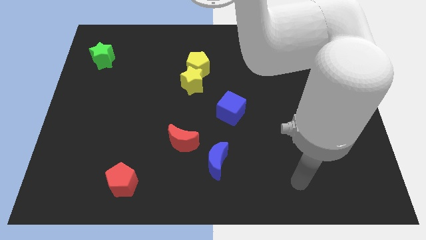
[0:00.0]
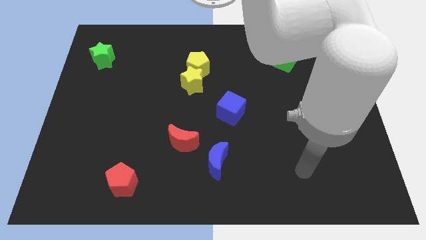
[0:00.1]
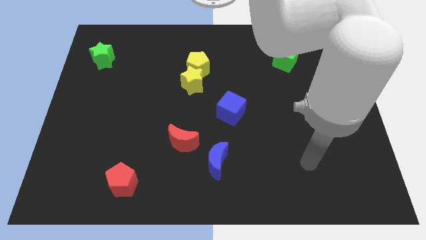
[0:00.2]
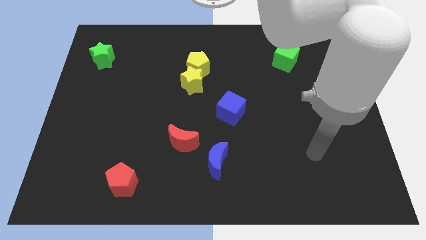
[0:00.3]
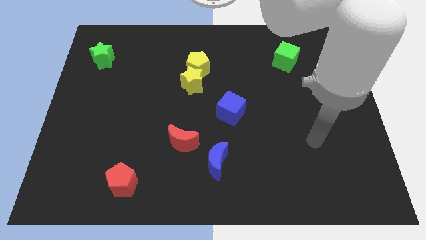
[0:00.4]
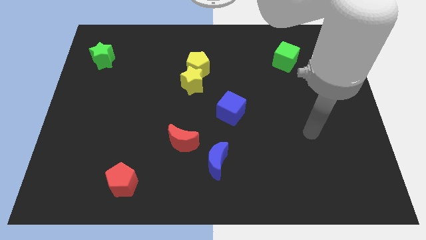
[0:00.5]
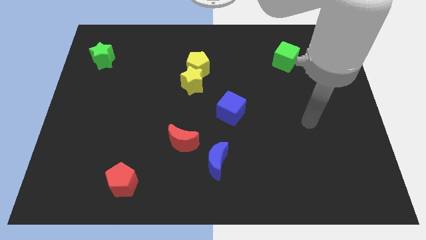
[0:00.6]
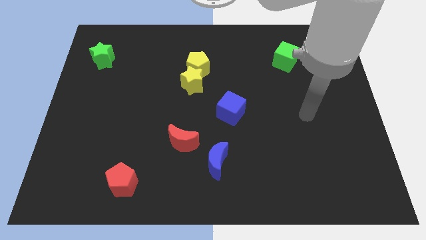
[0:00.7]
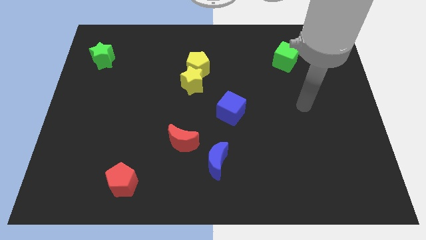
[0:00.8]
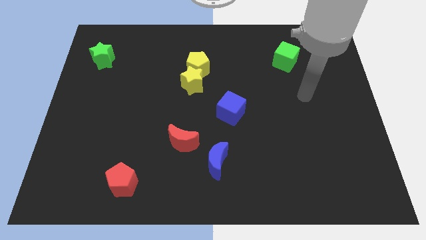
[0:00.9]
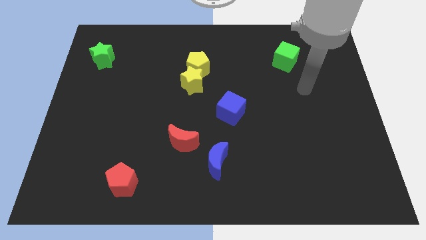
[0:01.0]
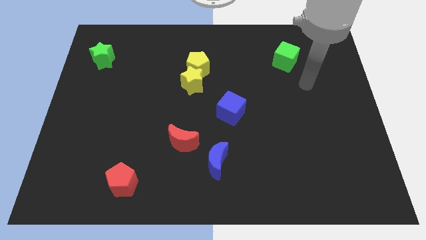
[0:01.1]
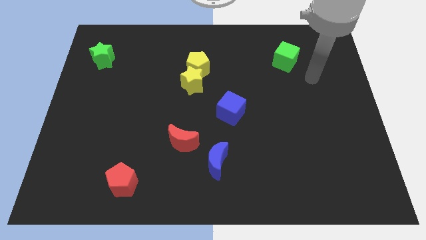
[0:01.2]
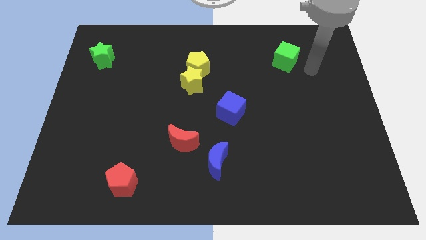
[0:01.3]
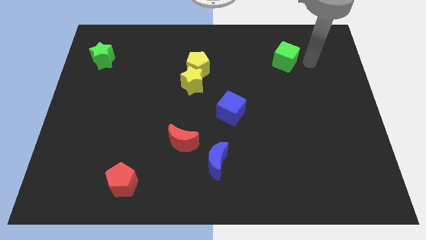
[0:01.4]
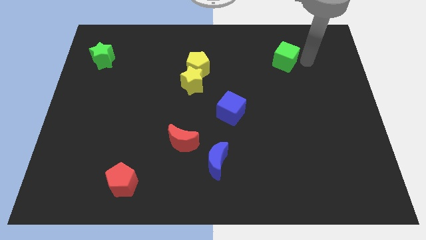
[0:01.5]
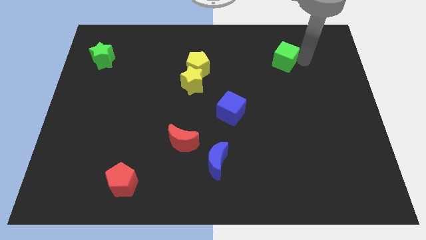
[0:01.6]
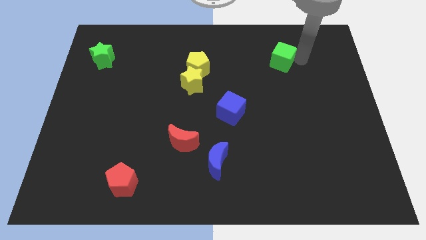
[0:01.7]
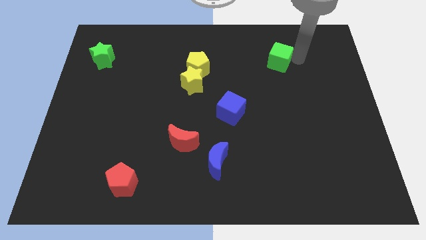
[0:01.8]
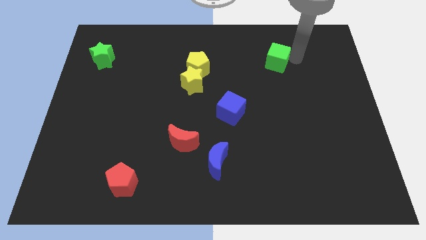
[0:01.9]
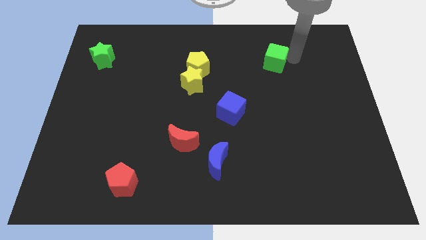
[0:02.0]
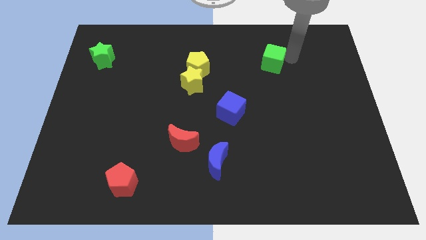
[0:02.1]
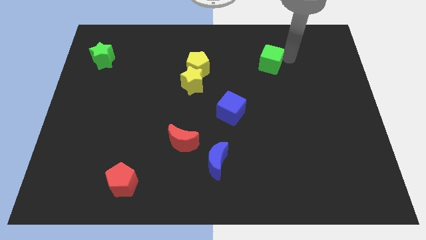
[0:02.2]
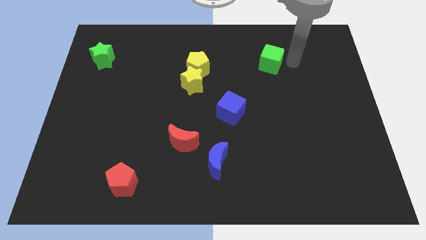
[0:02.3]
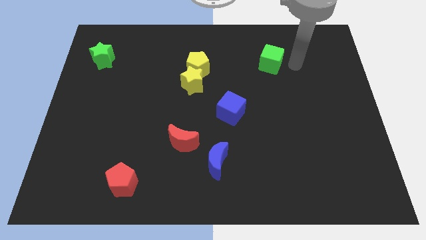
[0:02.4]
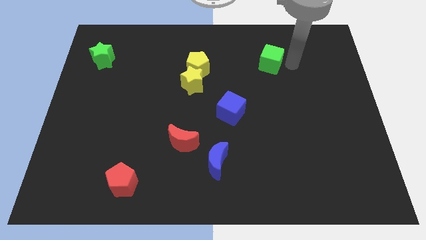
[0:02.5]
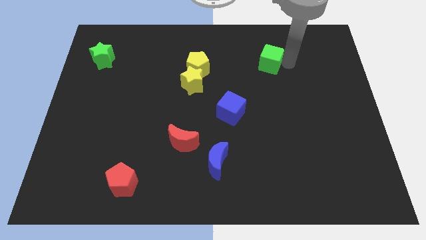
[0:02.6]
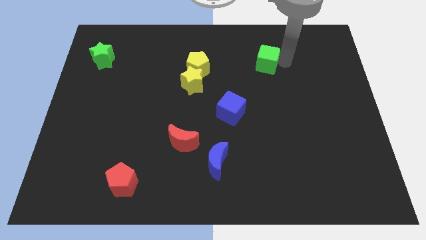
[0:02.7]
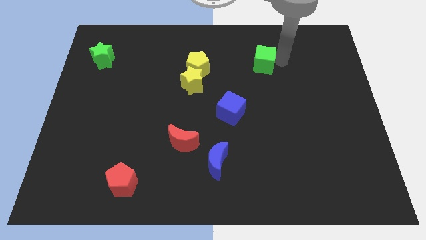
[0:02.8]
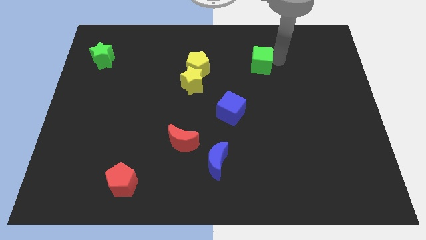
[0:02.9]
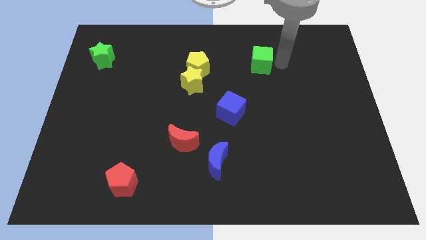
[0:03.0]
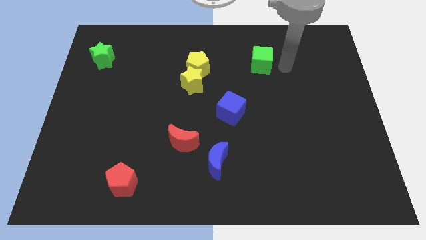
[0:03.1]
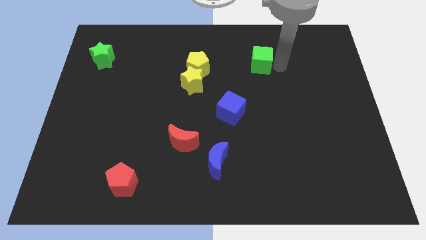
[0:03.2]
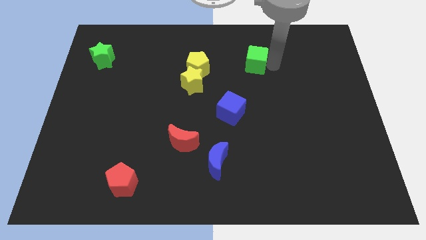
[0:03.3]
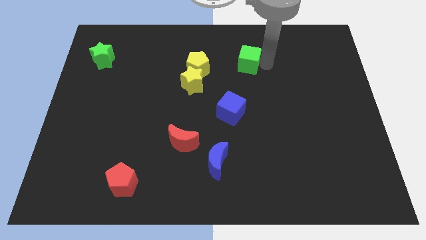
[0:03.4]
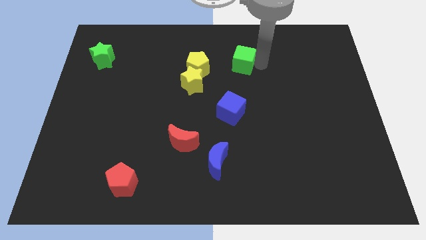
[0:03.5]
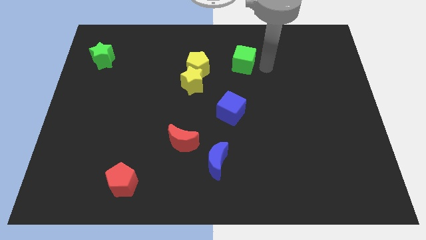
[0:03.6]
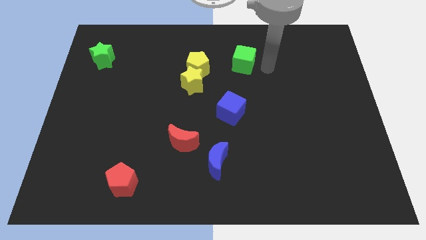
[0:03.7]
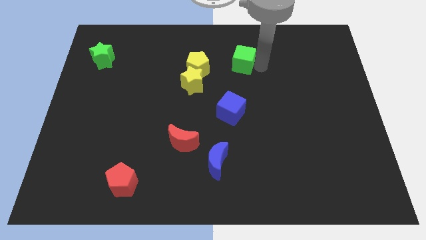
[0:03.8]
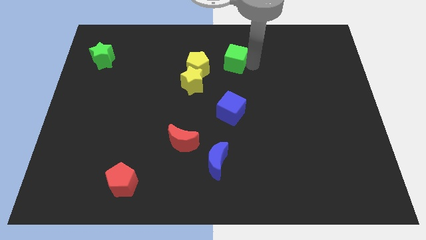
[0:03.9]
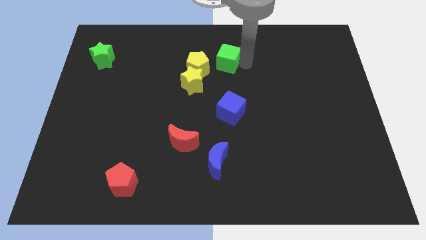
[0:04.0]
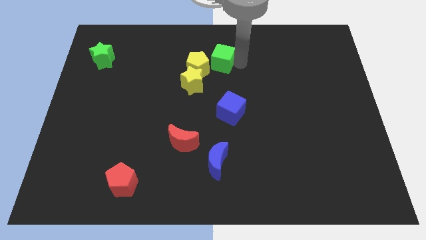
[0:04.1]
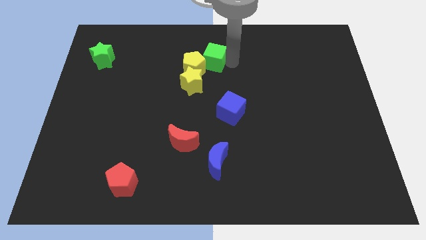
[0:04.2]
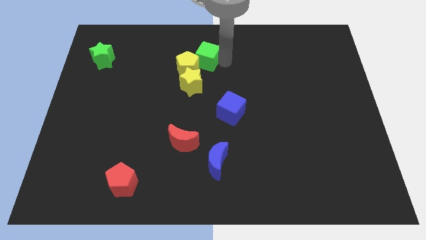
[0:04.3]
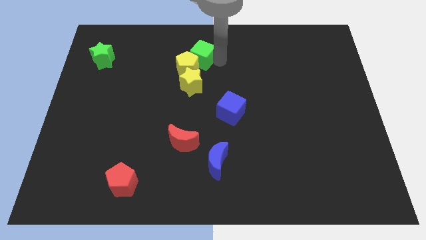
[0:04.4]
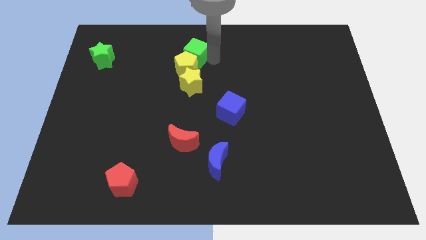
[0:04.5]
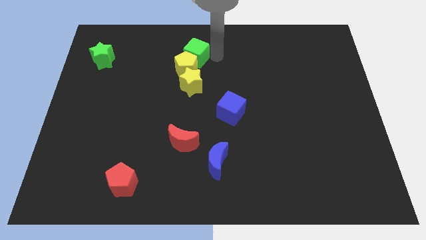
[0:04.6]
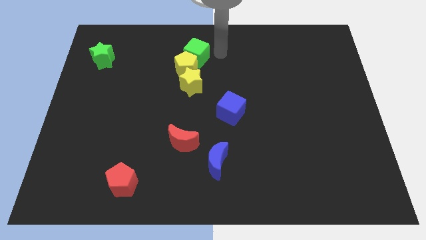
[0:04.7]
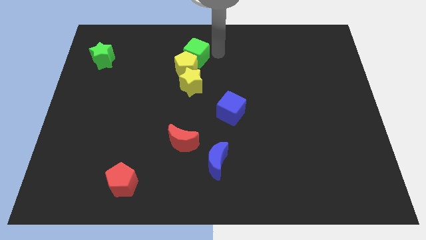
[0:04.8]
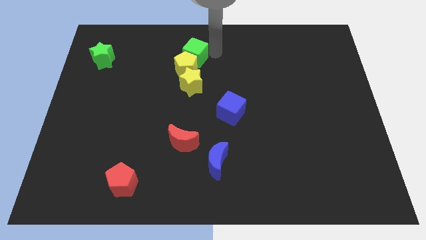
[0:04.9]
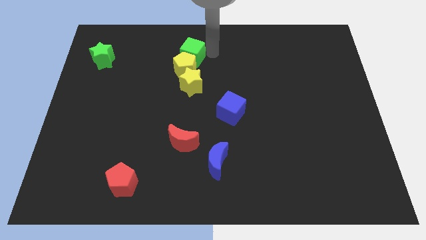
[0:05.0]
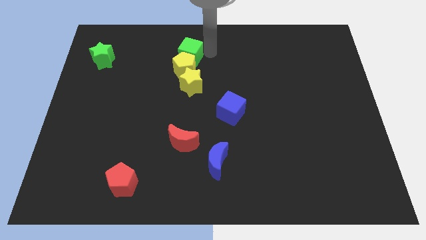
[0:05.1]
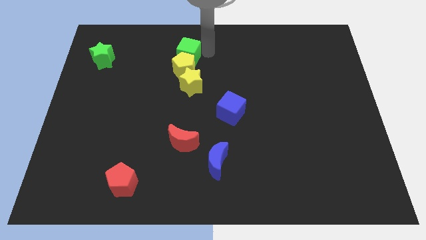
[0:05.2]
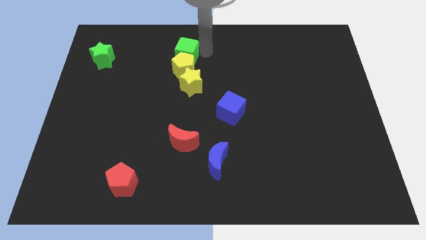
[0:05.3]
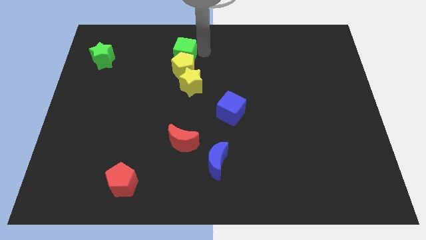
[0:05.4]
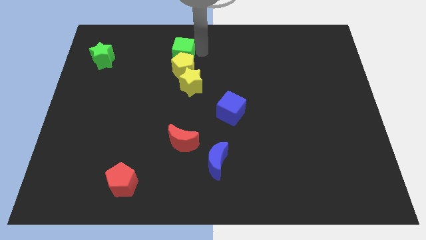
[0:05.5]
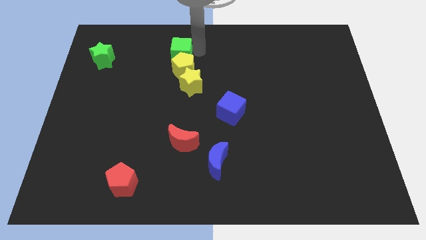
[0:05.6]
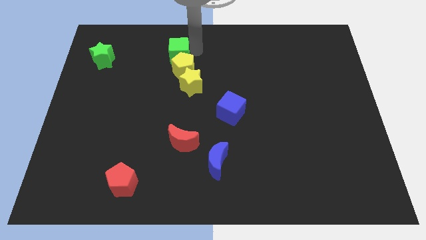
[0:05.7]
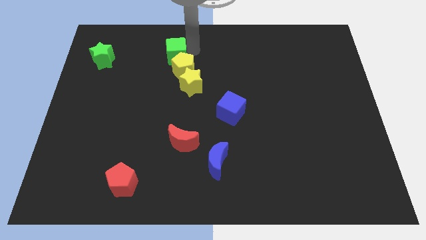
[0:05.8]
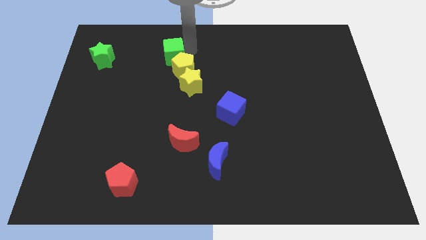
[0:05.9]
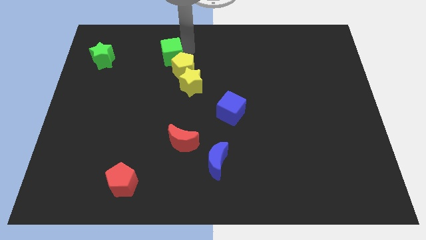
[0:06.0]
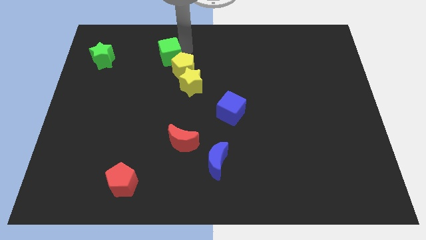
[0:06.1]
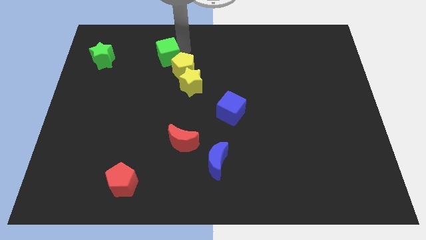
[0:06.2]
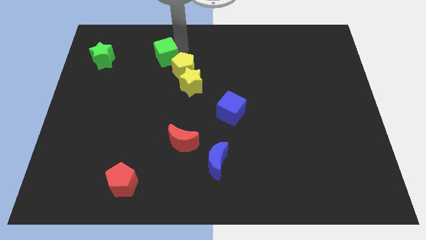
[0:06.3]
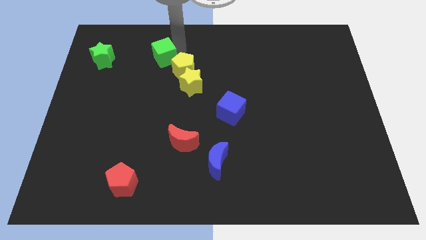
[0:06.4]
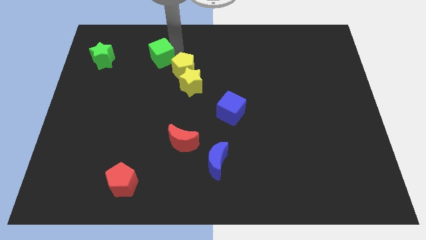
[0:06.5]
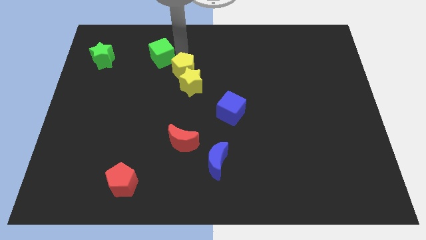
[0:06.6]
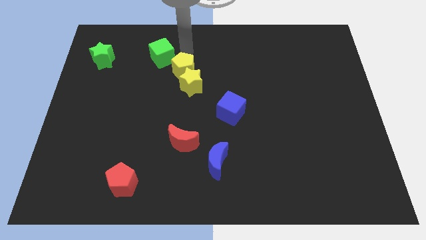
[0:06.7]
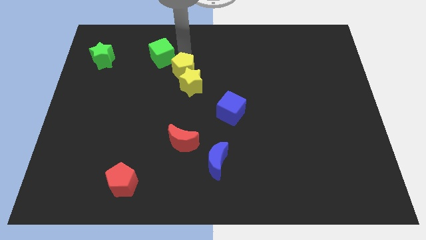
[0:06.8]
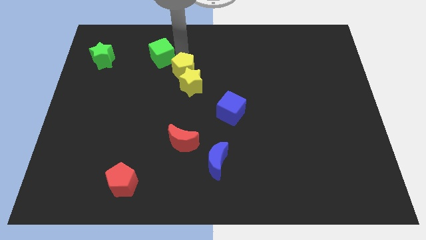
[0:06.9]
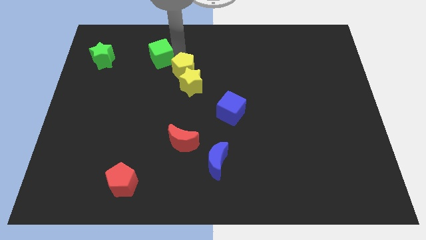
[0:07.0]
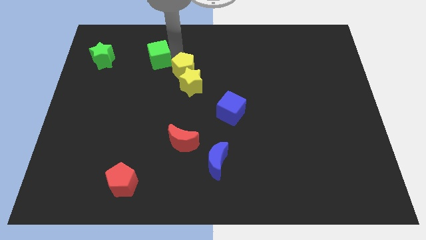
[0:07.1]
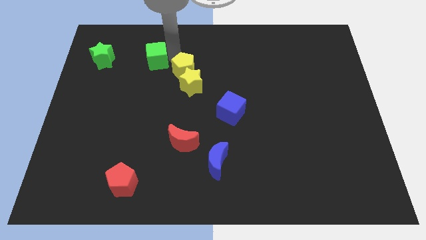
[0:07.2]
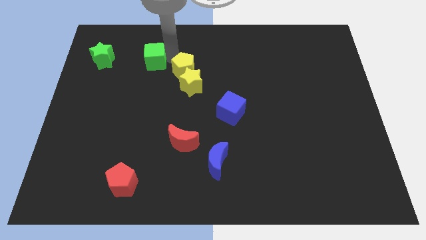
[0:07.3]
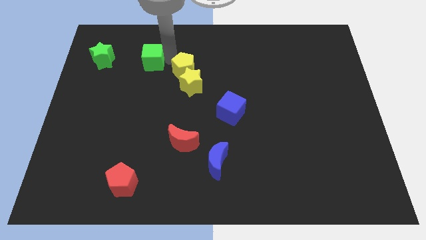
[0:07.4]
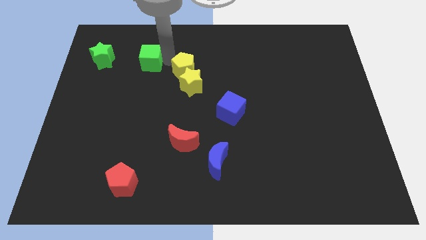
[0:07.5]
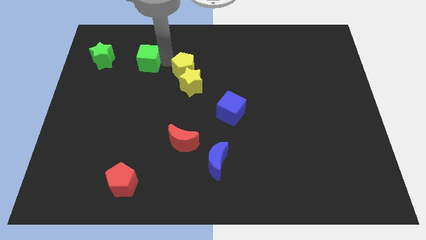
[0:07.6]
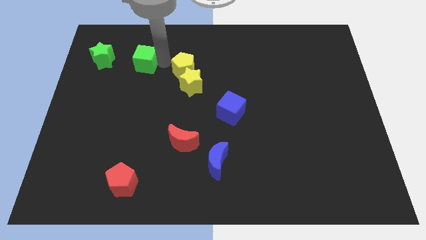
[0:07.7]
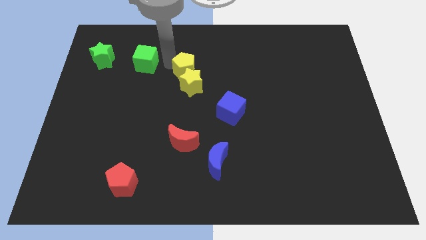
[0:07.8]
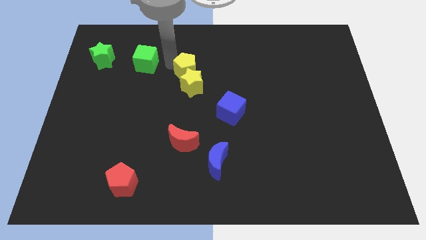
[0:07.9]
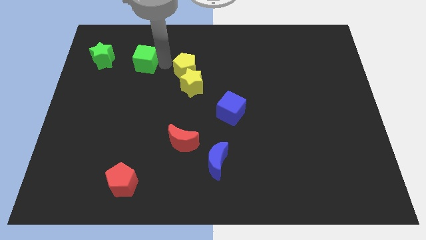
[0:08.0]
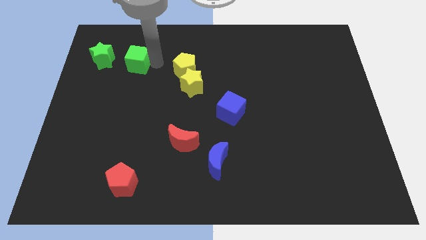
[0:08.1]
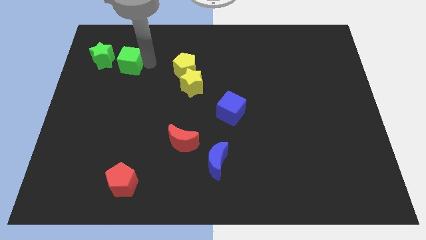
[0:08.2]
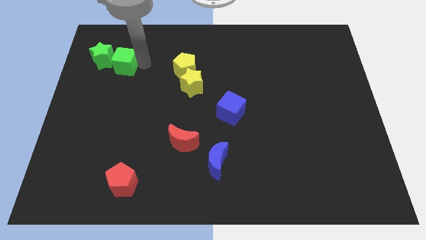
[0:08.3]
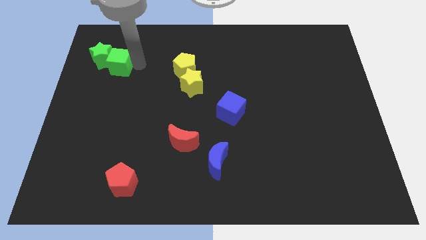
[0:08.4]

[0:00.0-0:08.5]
put the green cube close to the green star
